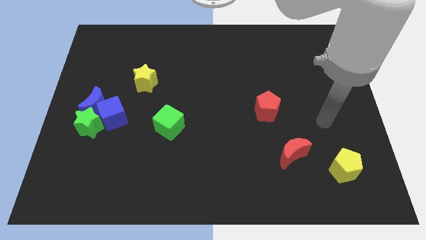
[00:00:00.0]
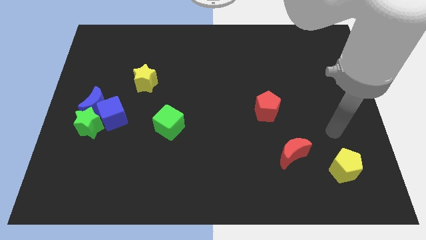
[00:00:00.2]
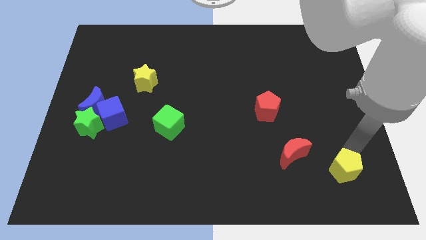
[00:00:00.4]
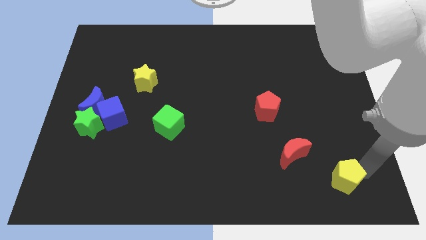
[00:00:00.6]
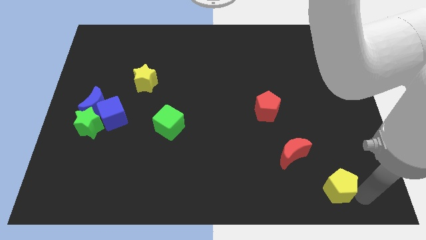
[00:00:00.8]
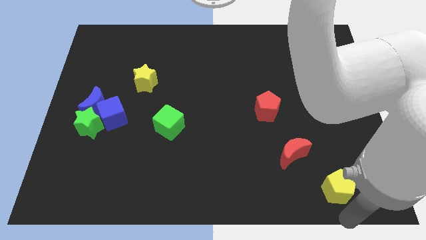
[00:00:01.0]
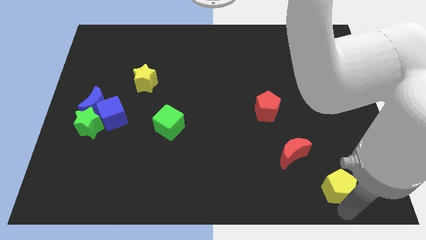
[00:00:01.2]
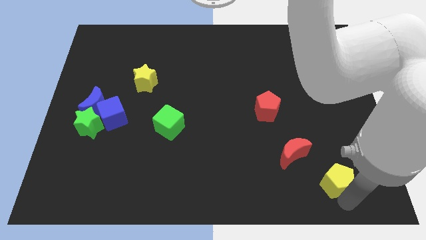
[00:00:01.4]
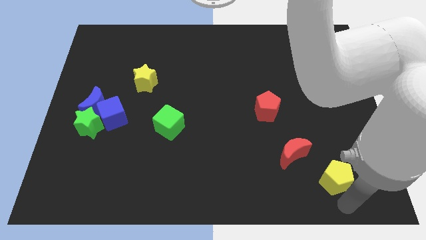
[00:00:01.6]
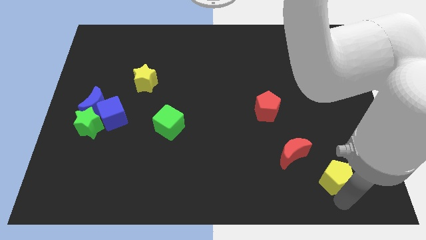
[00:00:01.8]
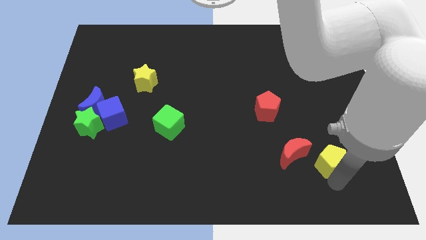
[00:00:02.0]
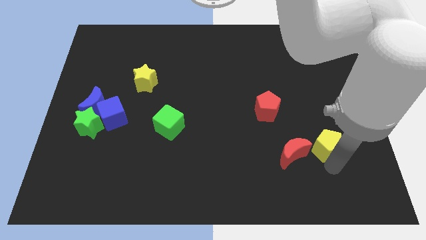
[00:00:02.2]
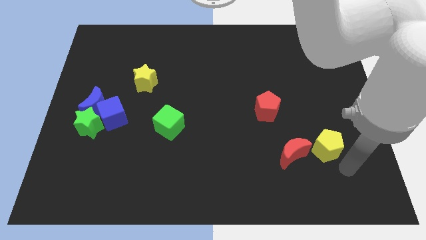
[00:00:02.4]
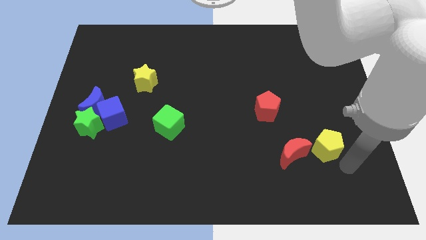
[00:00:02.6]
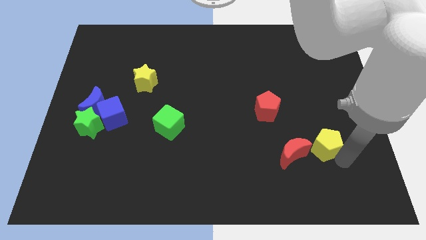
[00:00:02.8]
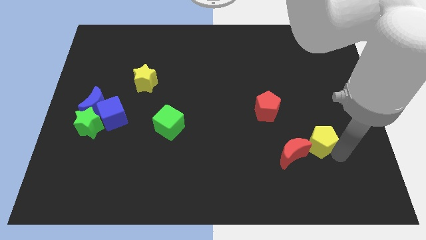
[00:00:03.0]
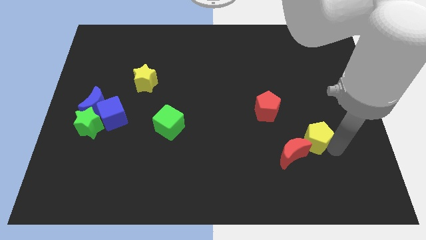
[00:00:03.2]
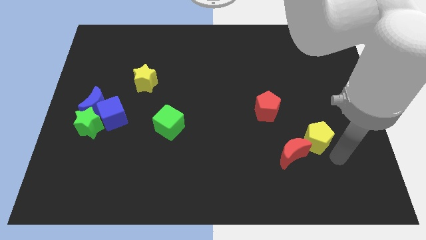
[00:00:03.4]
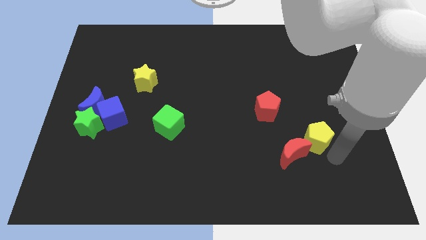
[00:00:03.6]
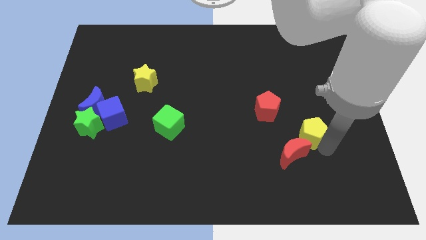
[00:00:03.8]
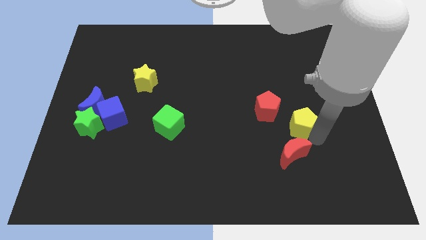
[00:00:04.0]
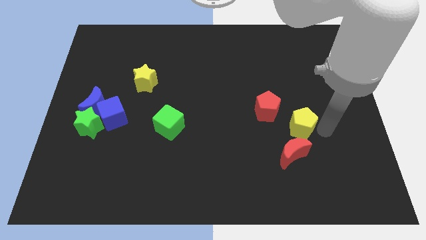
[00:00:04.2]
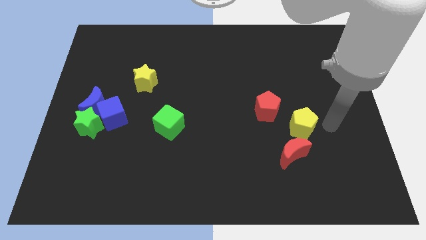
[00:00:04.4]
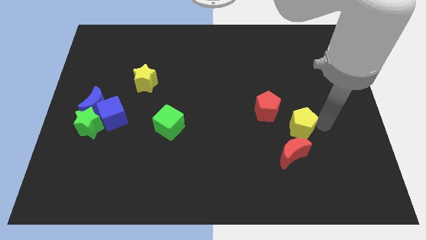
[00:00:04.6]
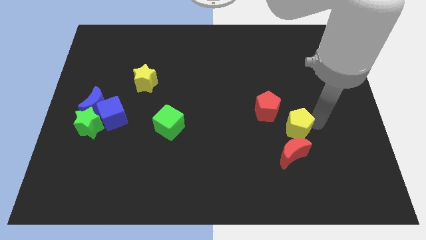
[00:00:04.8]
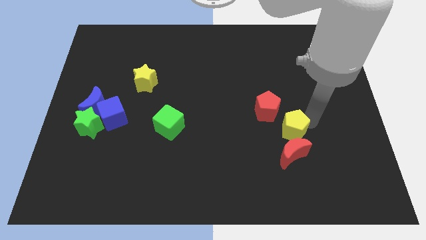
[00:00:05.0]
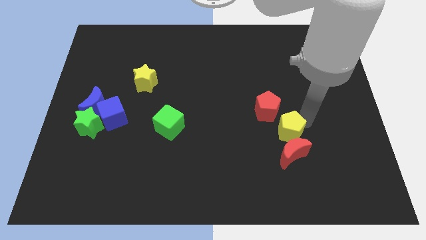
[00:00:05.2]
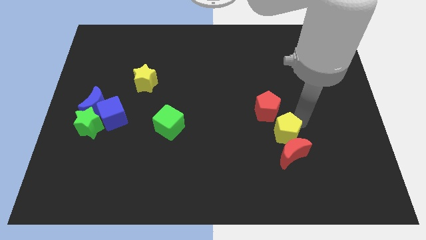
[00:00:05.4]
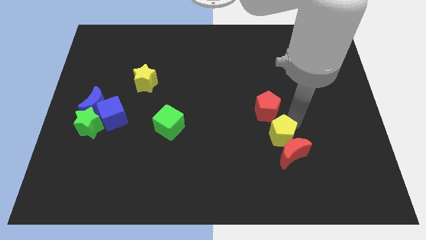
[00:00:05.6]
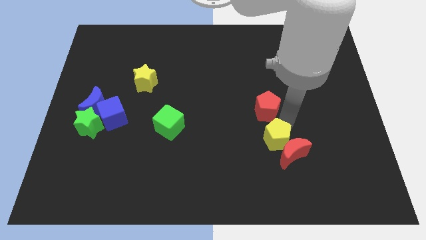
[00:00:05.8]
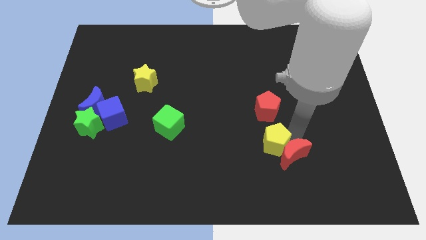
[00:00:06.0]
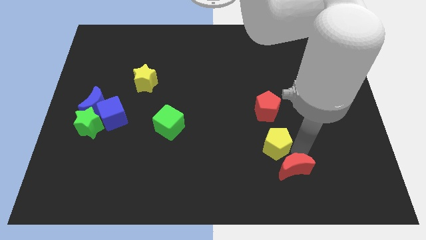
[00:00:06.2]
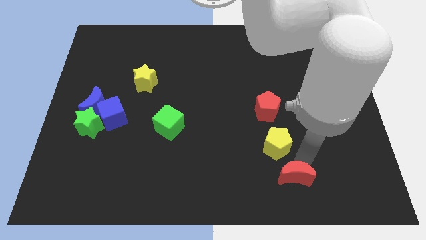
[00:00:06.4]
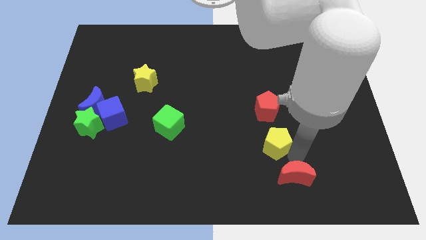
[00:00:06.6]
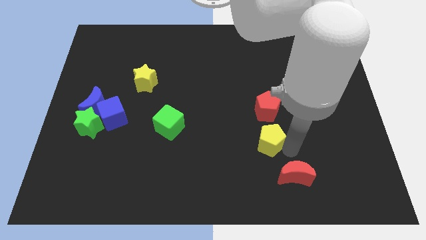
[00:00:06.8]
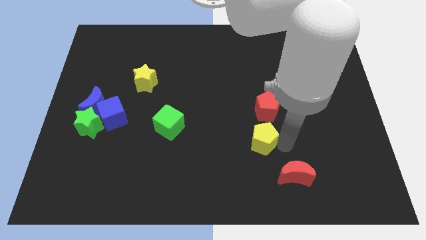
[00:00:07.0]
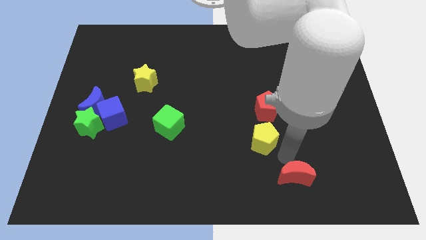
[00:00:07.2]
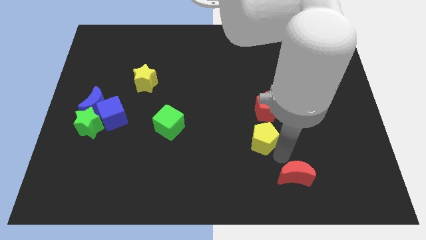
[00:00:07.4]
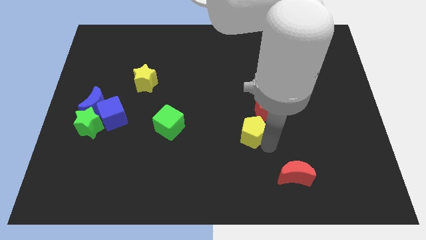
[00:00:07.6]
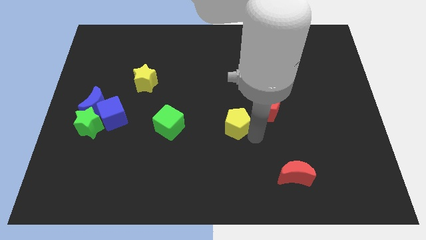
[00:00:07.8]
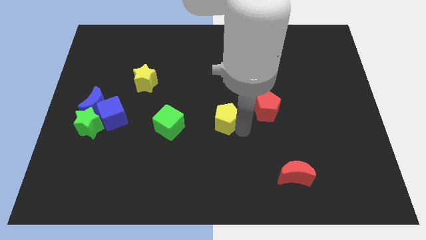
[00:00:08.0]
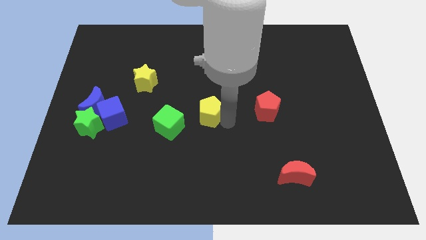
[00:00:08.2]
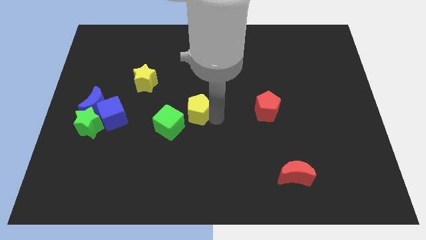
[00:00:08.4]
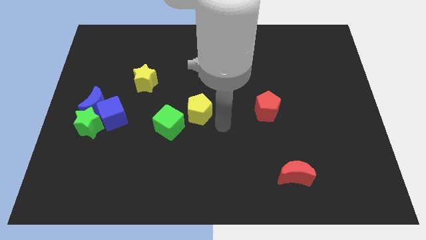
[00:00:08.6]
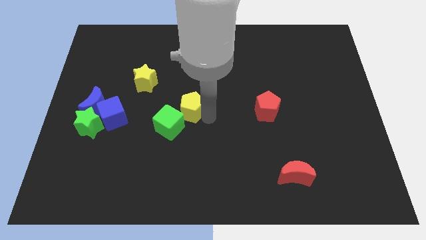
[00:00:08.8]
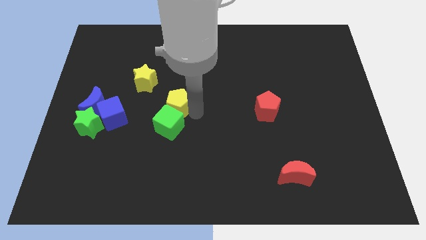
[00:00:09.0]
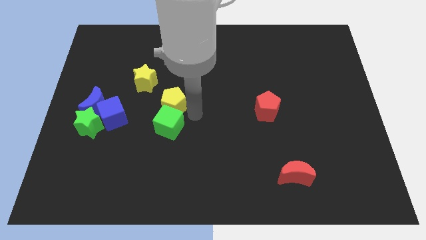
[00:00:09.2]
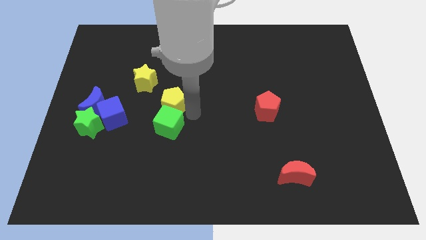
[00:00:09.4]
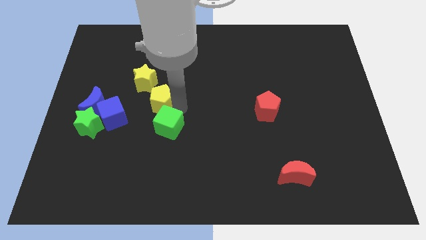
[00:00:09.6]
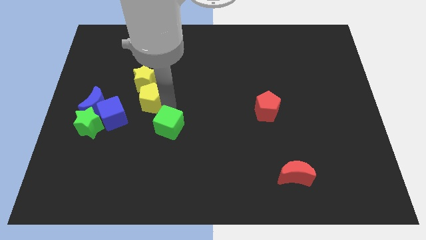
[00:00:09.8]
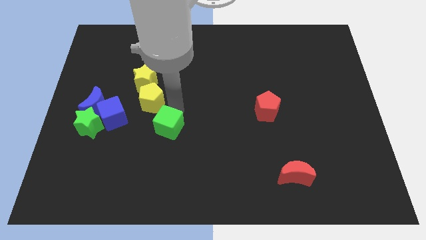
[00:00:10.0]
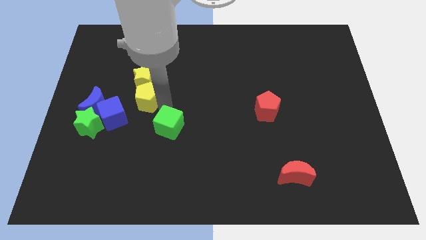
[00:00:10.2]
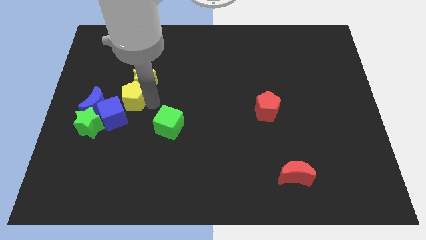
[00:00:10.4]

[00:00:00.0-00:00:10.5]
slide the yellow pentagon above the blue cube

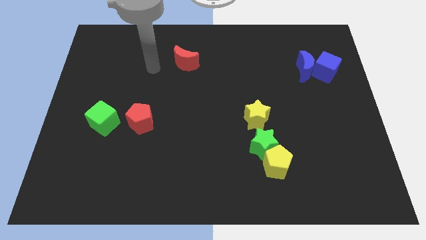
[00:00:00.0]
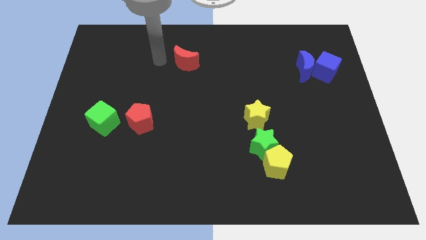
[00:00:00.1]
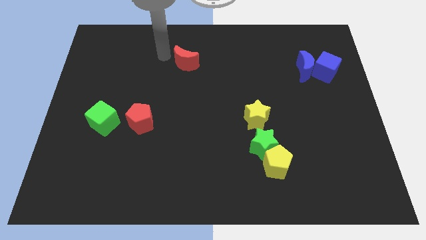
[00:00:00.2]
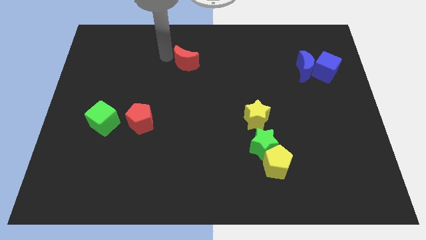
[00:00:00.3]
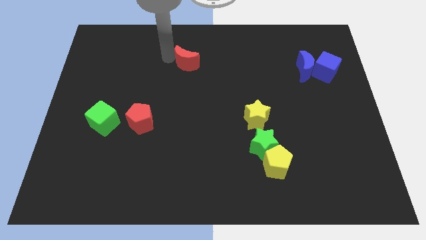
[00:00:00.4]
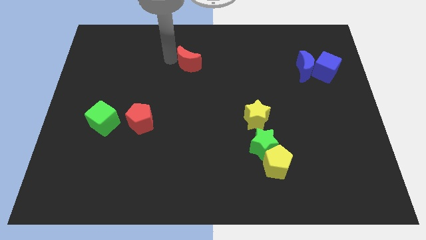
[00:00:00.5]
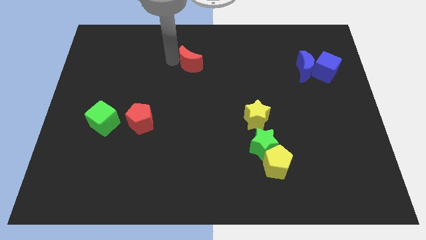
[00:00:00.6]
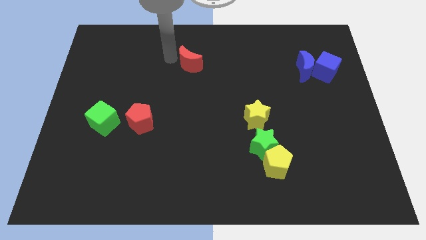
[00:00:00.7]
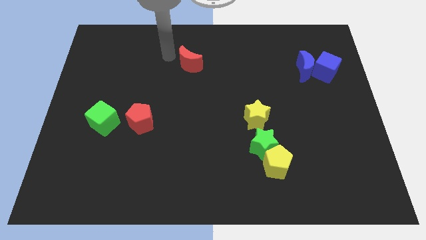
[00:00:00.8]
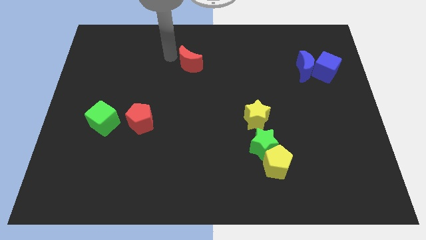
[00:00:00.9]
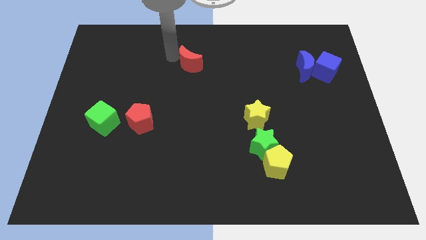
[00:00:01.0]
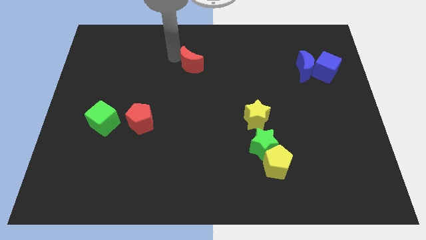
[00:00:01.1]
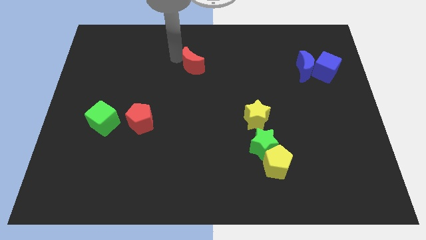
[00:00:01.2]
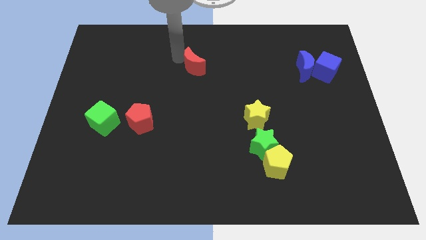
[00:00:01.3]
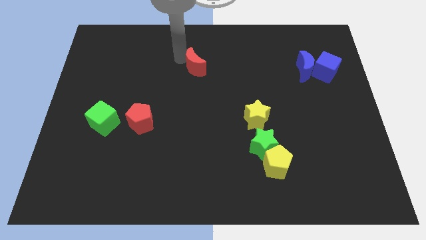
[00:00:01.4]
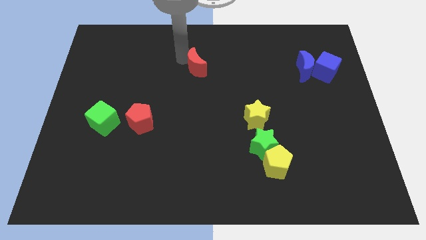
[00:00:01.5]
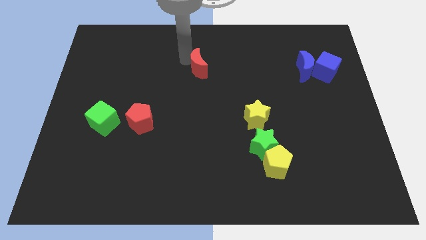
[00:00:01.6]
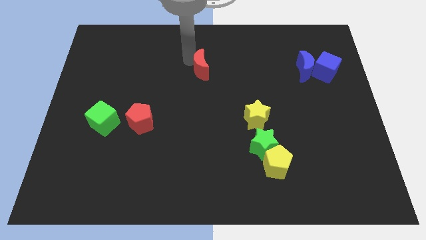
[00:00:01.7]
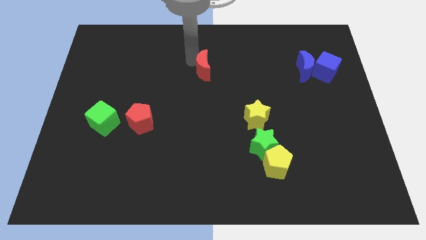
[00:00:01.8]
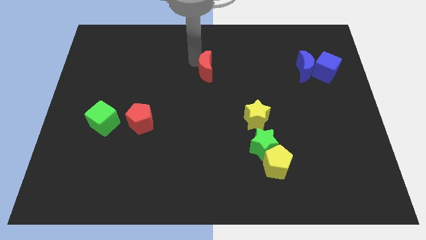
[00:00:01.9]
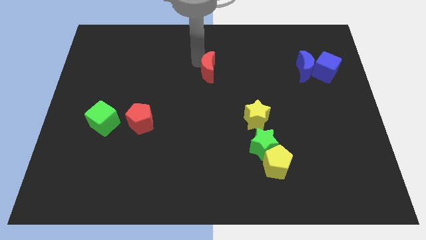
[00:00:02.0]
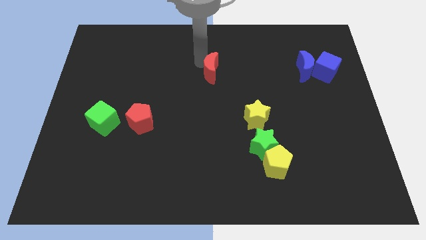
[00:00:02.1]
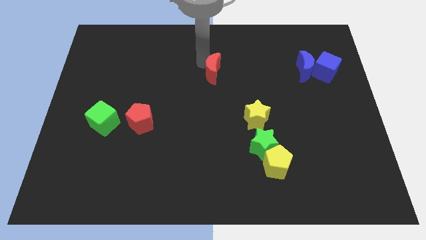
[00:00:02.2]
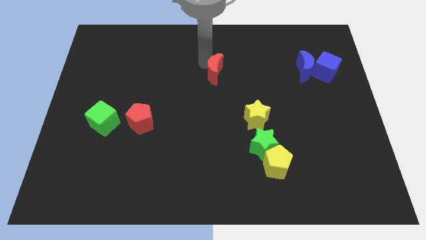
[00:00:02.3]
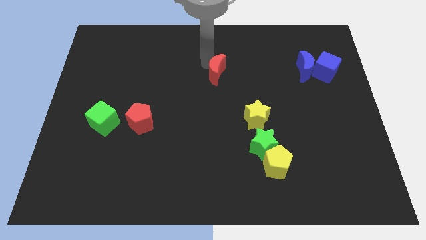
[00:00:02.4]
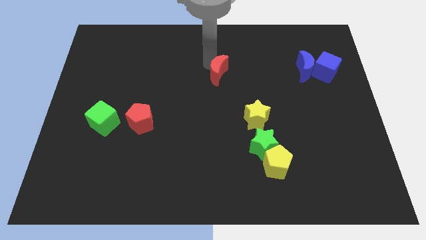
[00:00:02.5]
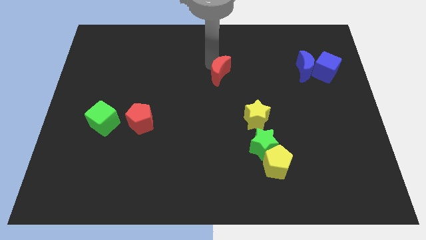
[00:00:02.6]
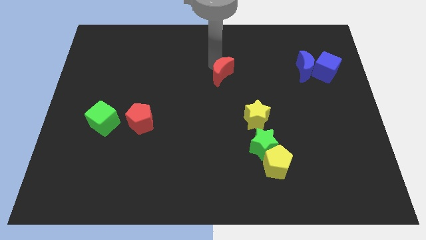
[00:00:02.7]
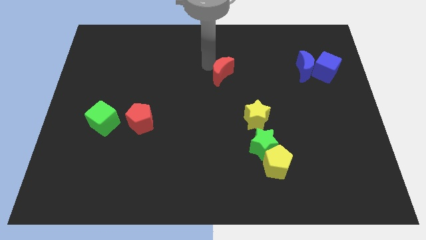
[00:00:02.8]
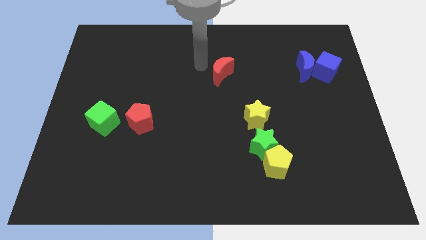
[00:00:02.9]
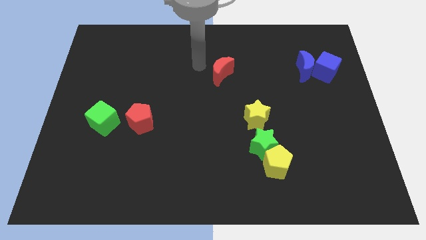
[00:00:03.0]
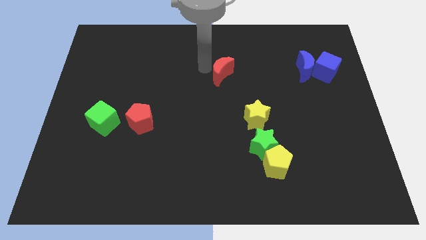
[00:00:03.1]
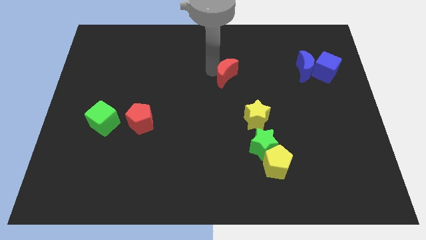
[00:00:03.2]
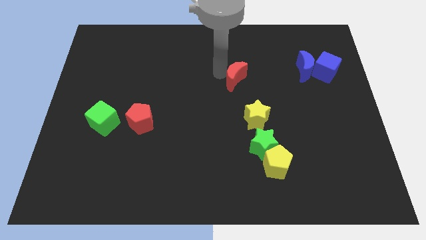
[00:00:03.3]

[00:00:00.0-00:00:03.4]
slide the red moon to the top of the yellow star
